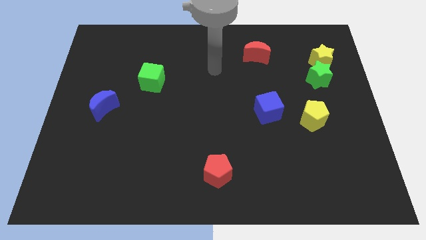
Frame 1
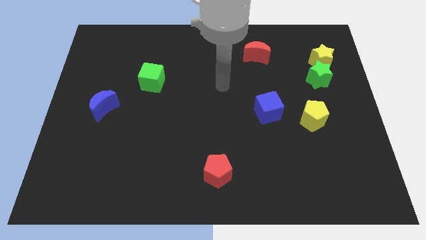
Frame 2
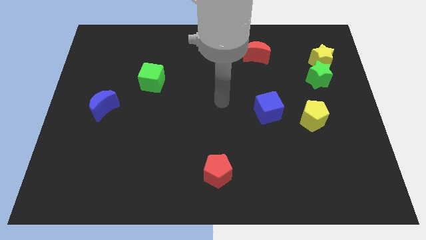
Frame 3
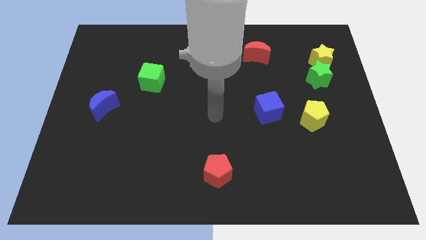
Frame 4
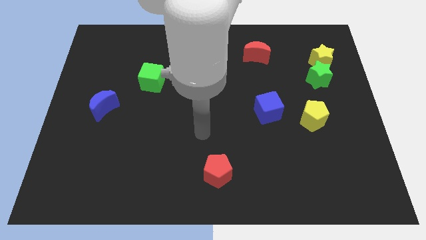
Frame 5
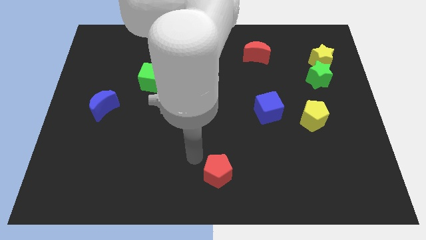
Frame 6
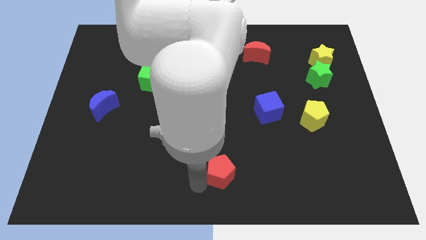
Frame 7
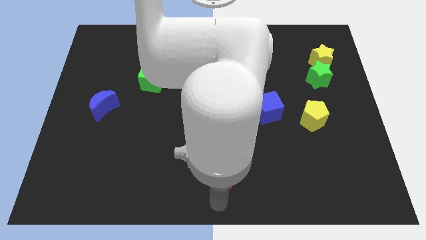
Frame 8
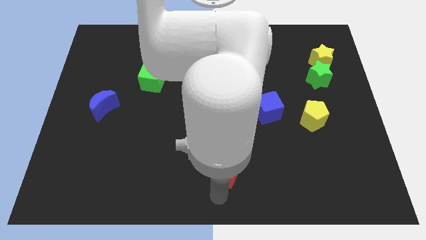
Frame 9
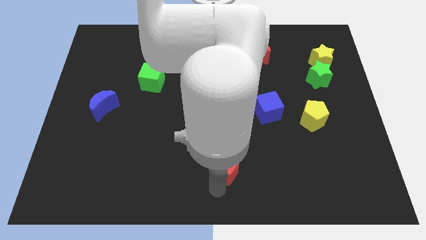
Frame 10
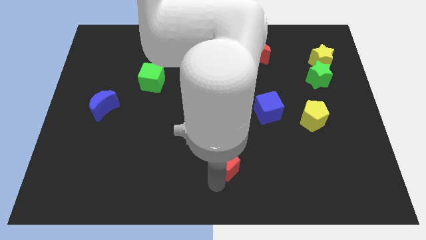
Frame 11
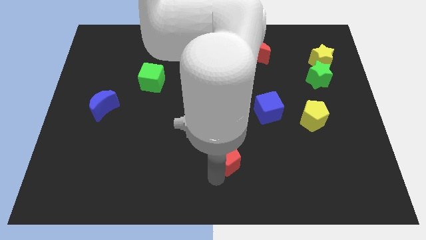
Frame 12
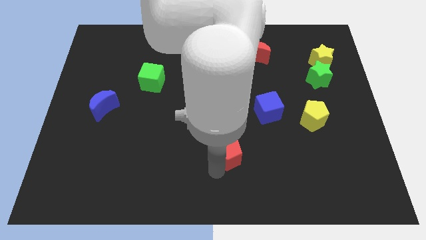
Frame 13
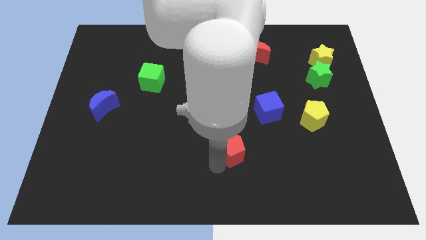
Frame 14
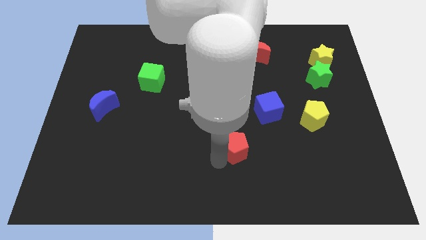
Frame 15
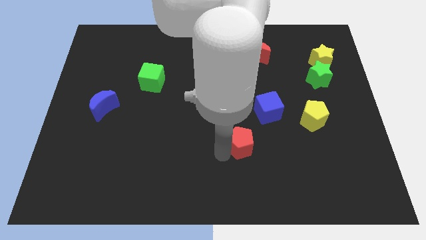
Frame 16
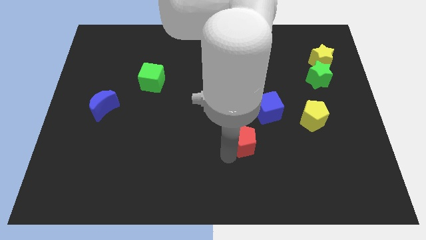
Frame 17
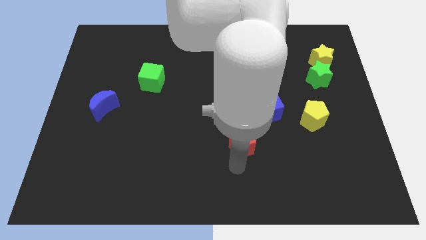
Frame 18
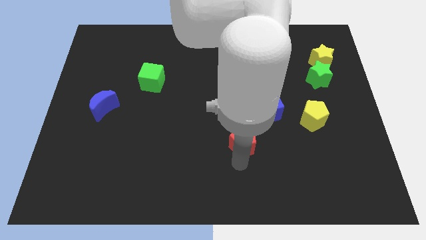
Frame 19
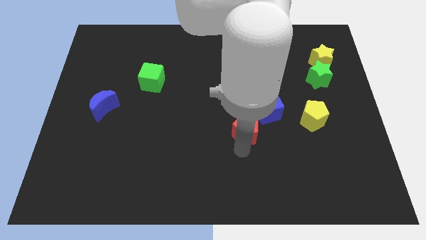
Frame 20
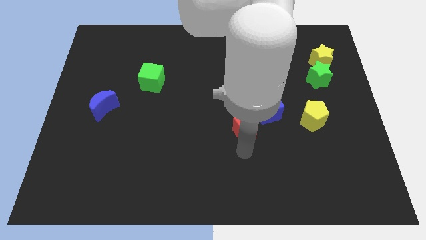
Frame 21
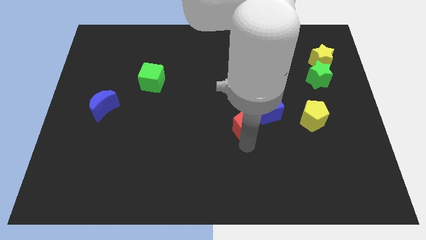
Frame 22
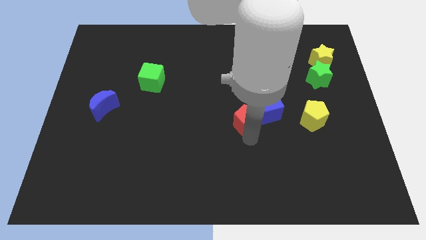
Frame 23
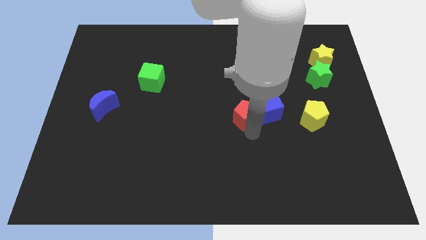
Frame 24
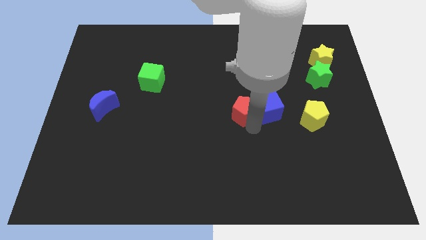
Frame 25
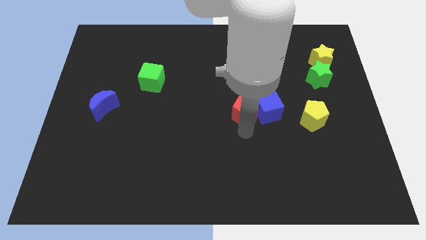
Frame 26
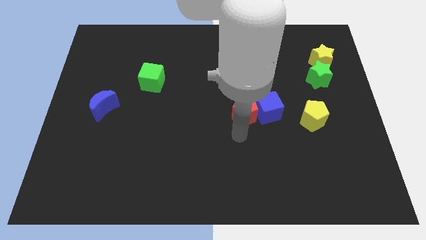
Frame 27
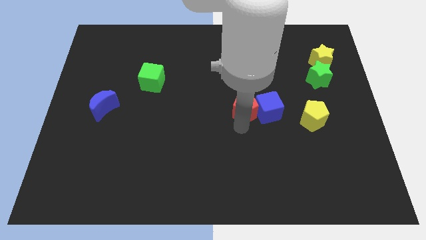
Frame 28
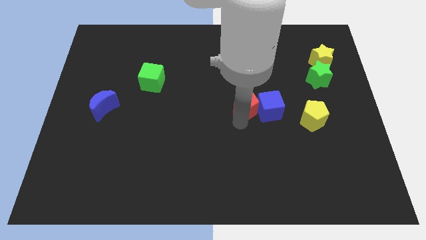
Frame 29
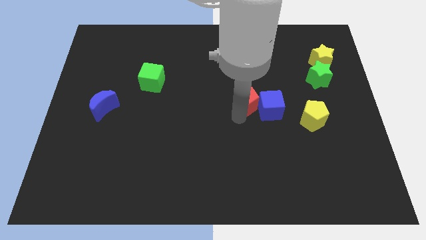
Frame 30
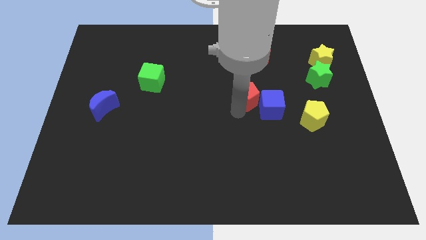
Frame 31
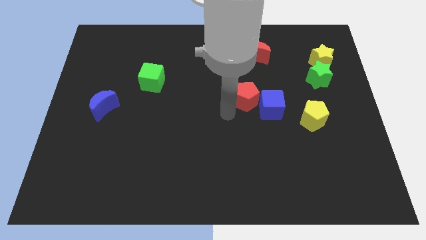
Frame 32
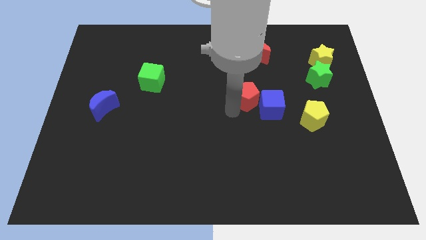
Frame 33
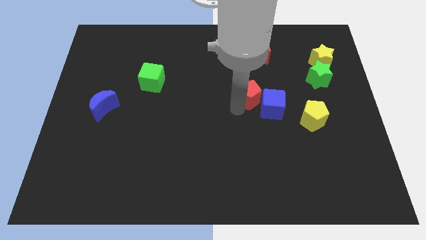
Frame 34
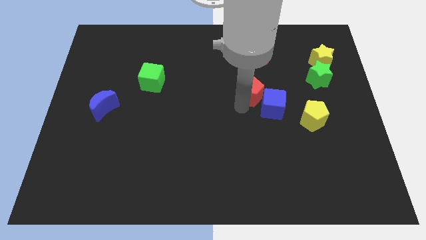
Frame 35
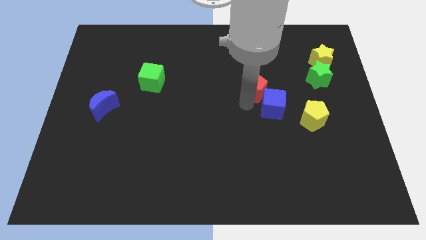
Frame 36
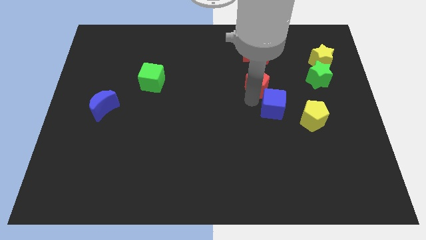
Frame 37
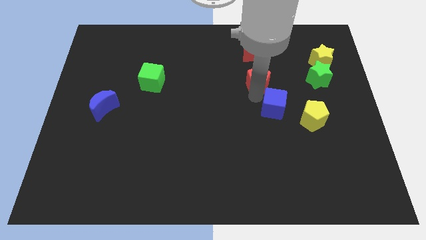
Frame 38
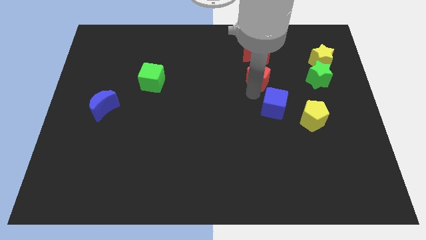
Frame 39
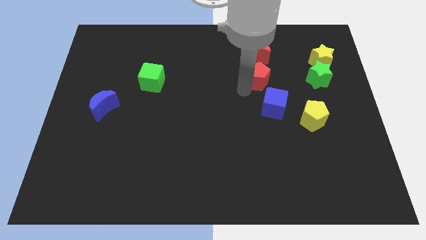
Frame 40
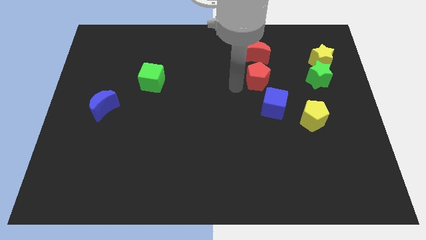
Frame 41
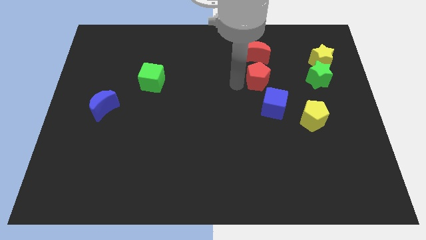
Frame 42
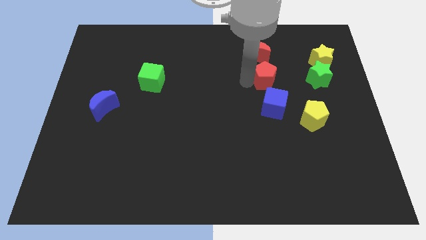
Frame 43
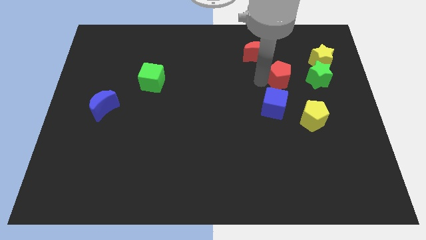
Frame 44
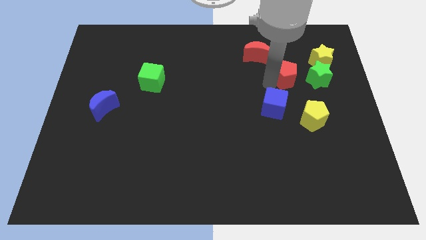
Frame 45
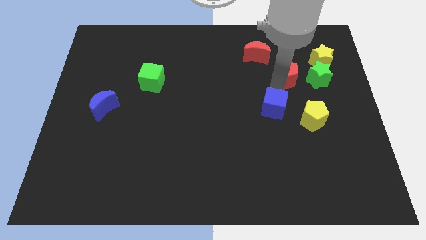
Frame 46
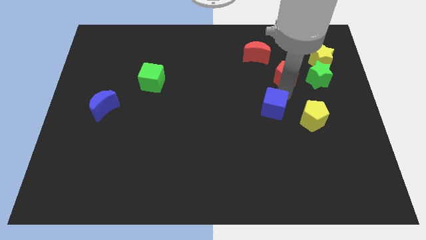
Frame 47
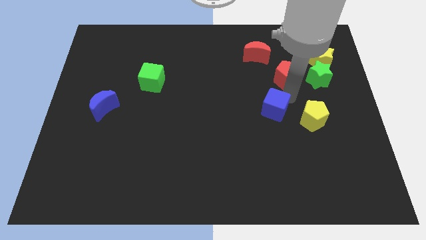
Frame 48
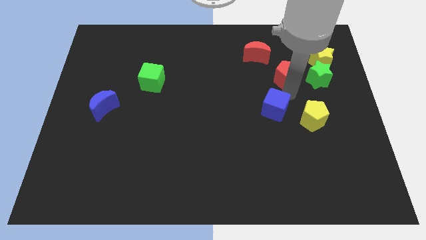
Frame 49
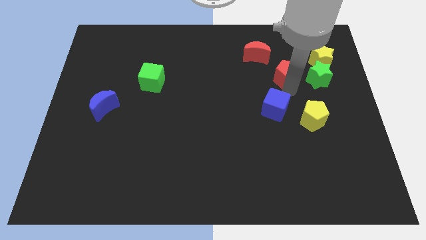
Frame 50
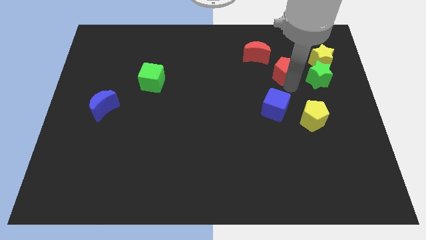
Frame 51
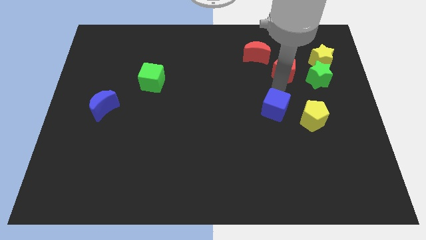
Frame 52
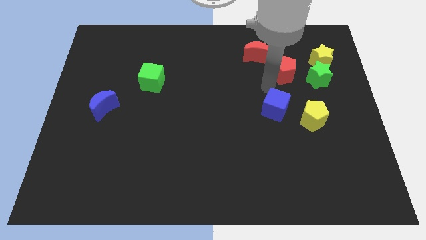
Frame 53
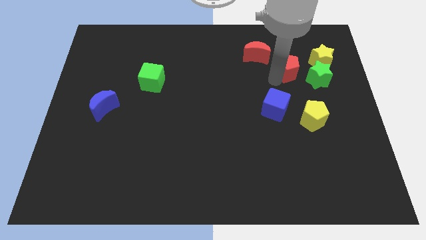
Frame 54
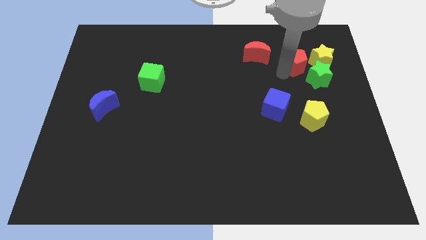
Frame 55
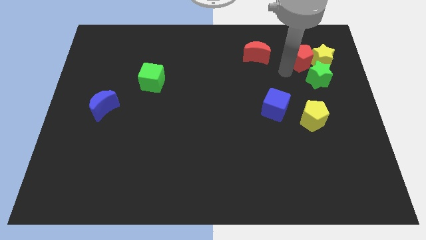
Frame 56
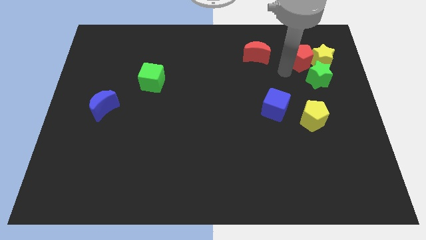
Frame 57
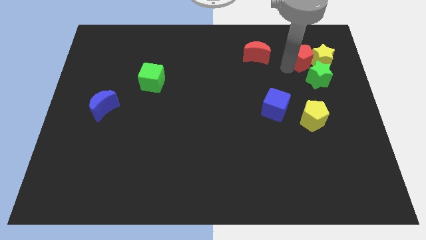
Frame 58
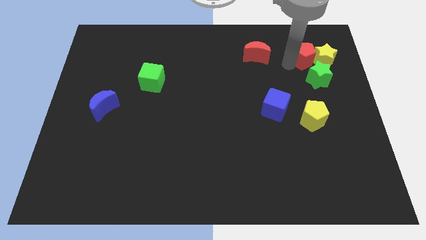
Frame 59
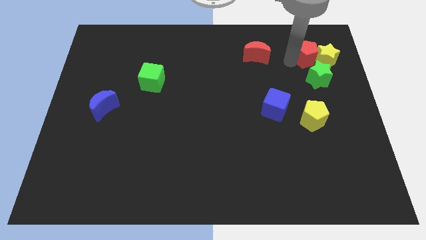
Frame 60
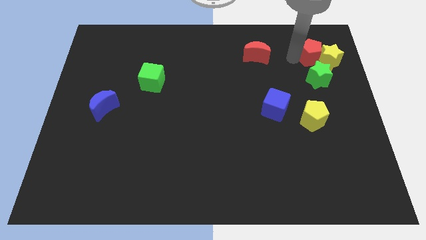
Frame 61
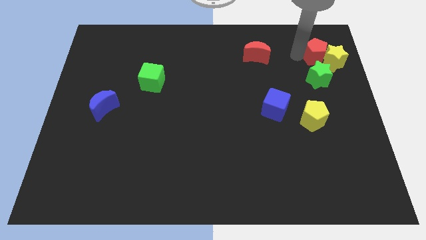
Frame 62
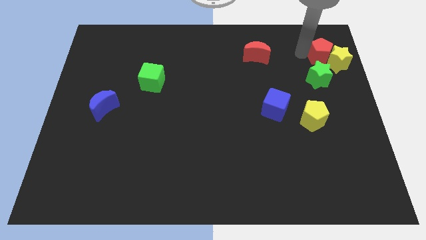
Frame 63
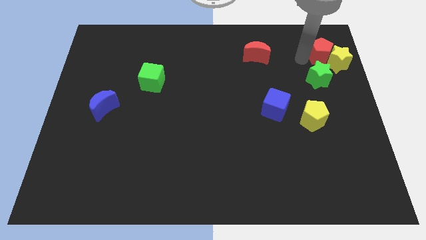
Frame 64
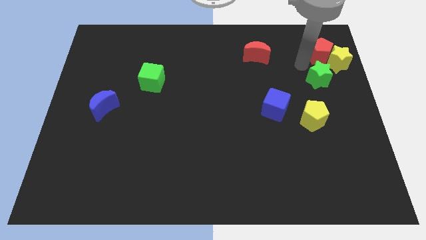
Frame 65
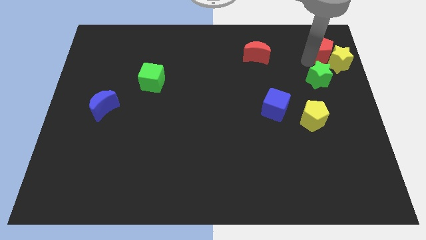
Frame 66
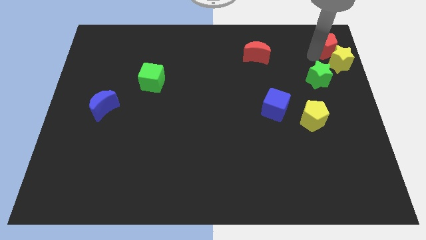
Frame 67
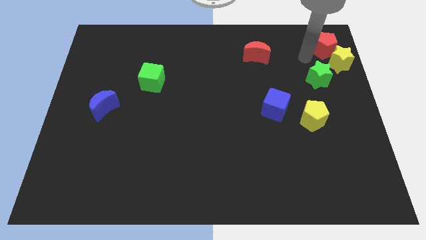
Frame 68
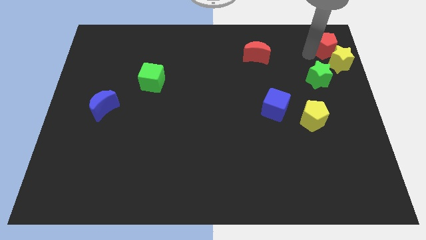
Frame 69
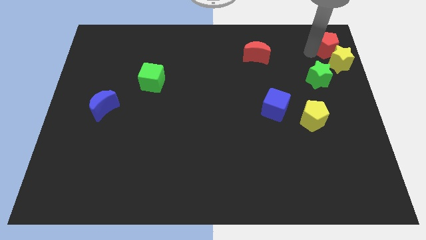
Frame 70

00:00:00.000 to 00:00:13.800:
push the red pentagon to the upper right corner
